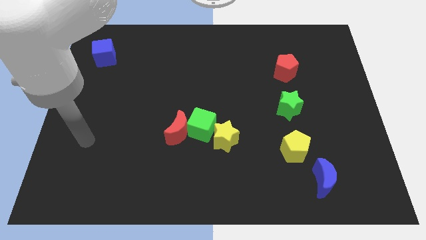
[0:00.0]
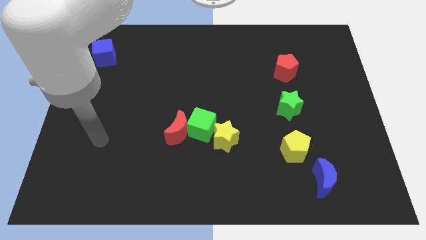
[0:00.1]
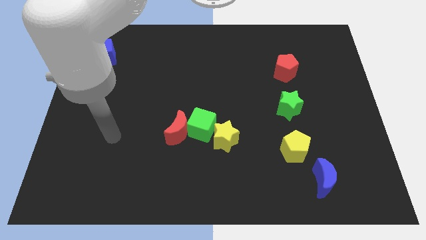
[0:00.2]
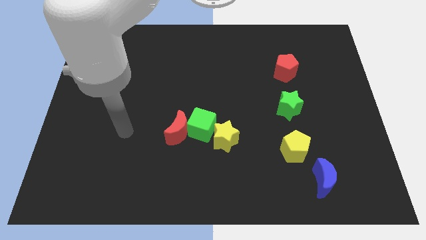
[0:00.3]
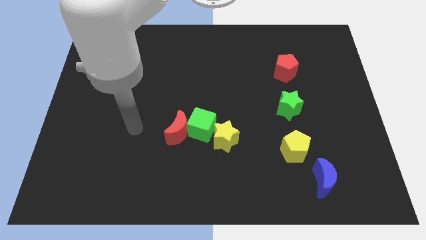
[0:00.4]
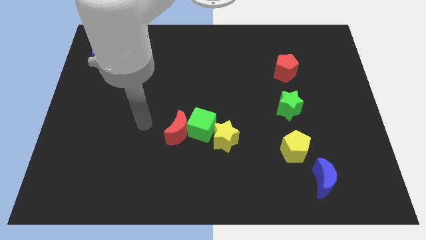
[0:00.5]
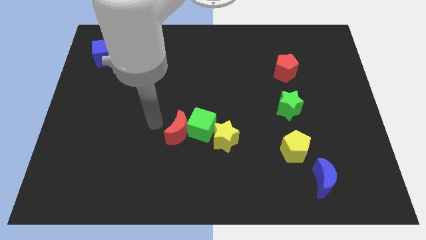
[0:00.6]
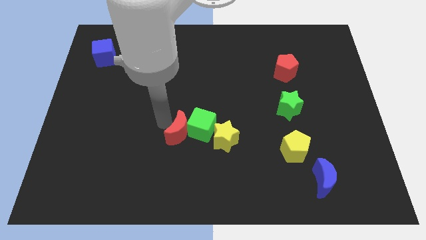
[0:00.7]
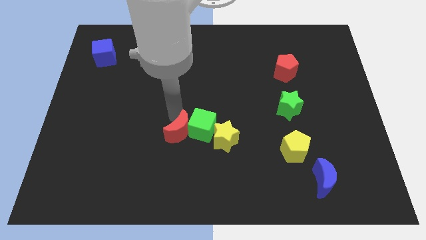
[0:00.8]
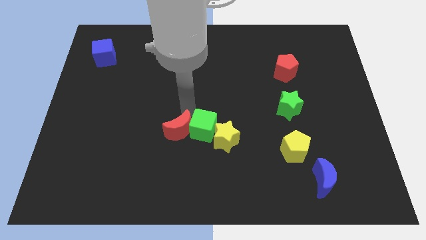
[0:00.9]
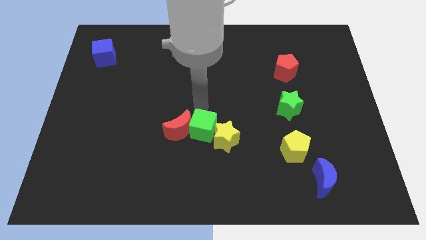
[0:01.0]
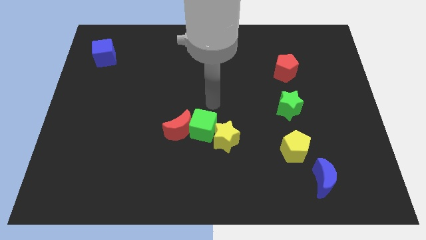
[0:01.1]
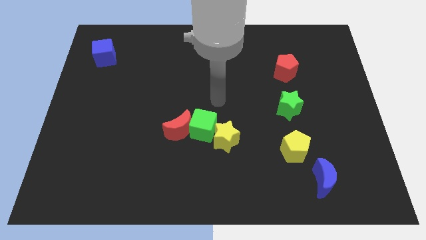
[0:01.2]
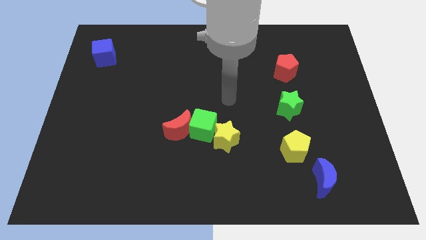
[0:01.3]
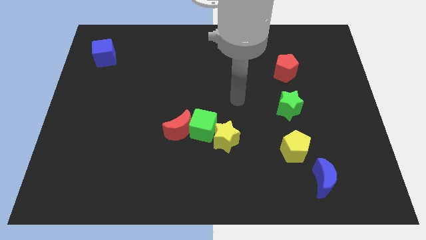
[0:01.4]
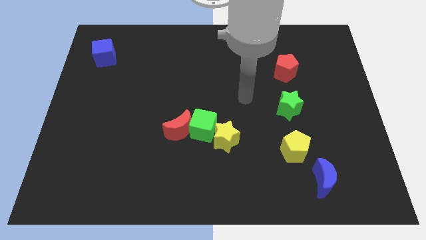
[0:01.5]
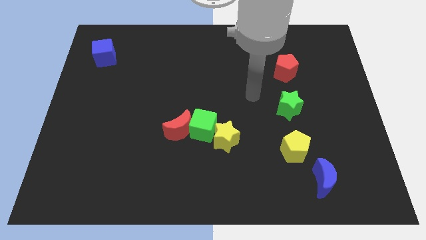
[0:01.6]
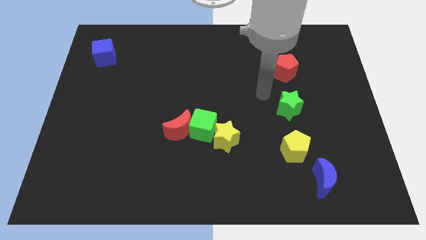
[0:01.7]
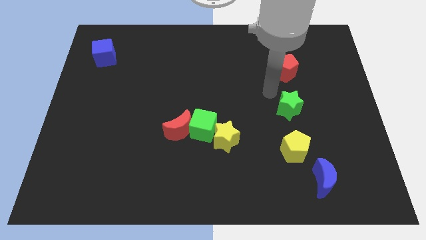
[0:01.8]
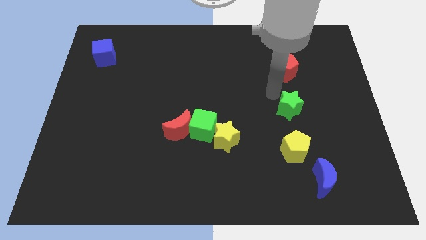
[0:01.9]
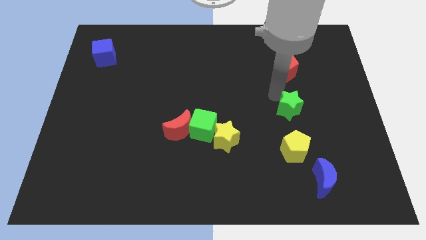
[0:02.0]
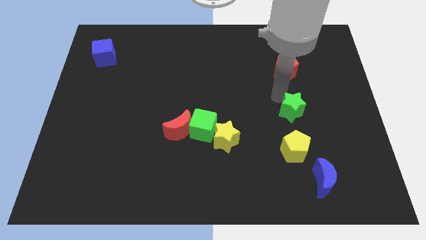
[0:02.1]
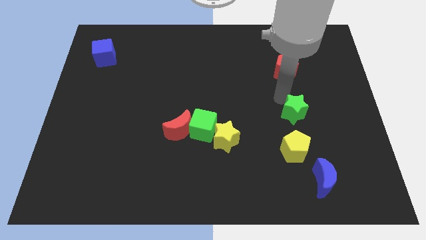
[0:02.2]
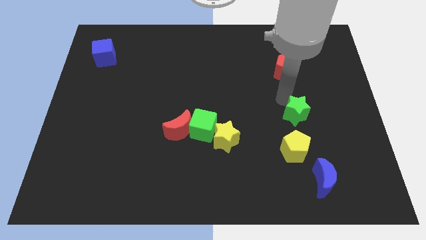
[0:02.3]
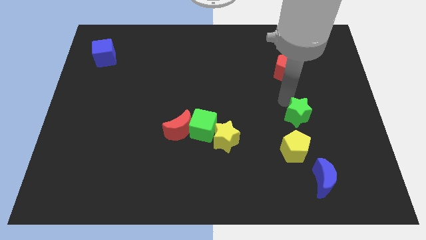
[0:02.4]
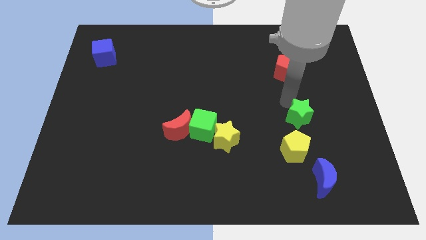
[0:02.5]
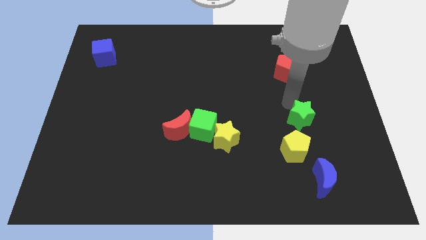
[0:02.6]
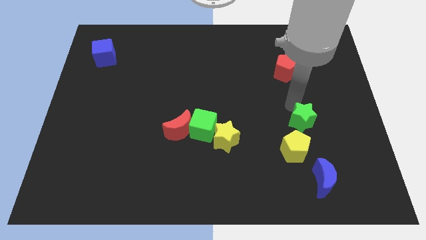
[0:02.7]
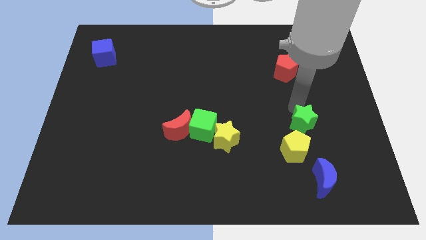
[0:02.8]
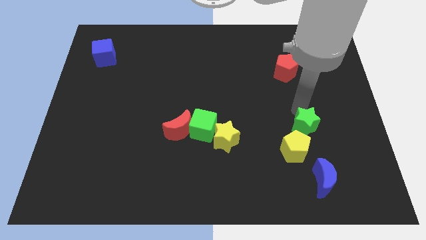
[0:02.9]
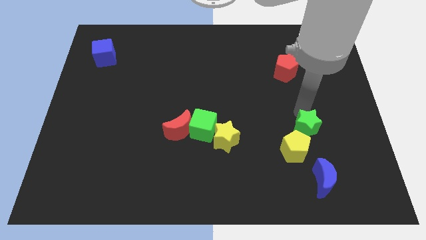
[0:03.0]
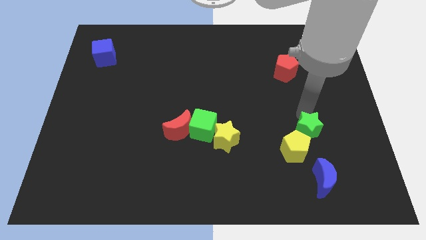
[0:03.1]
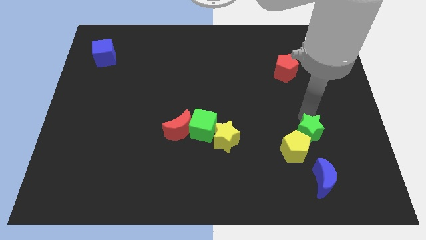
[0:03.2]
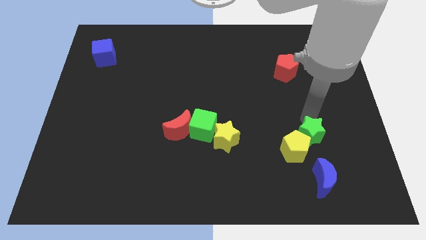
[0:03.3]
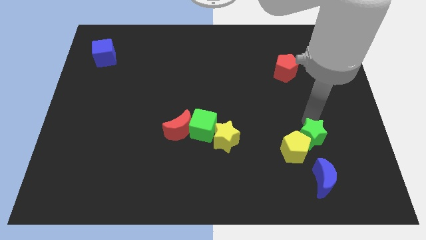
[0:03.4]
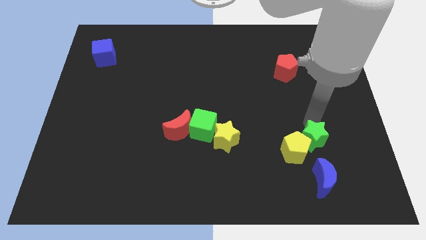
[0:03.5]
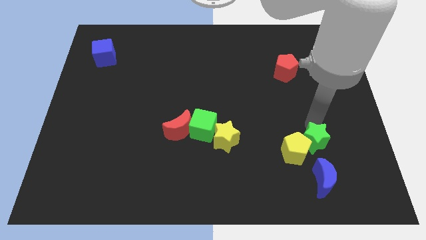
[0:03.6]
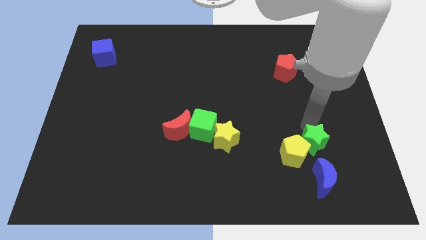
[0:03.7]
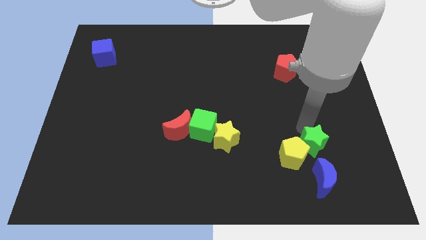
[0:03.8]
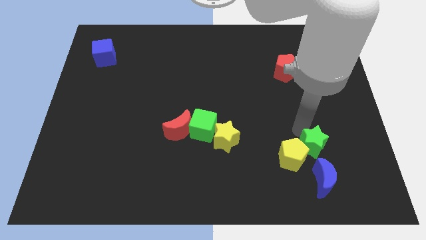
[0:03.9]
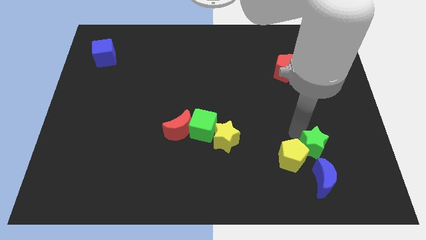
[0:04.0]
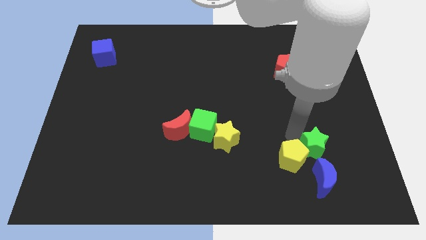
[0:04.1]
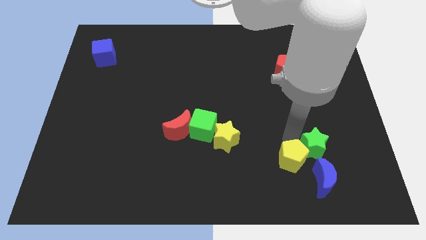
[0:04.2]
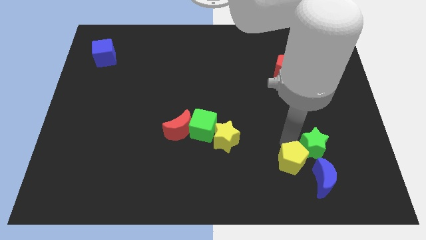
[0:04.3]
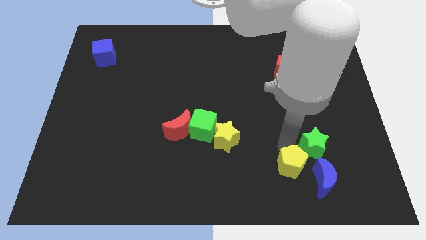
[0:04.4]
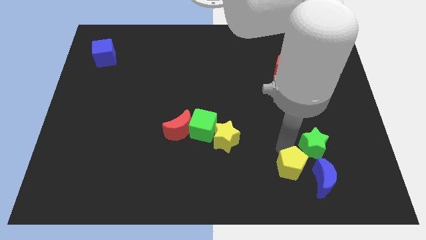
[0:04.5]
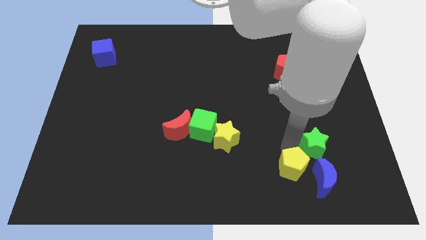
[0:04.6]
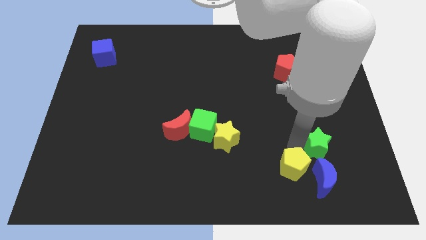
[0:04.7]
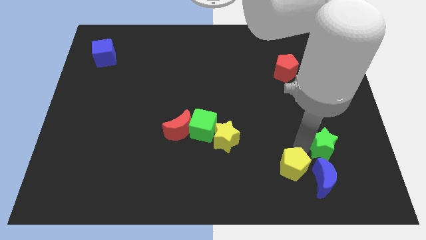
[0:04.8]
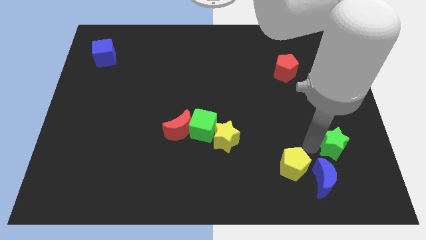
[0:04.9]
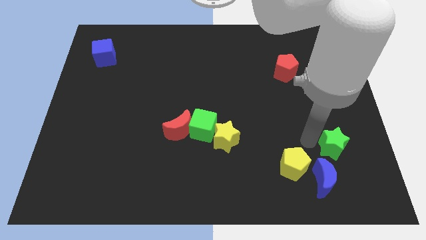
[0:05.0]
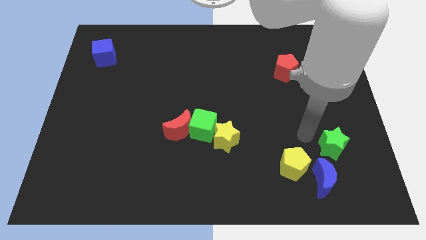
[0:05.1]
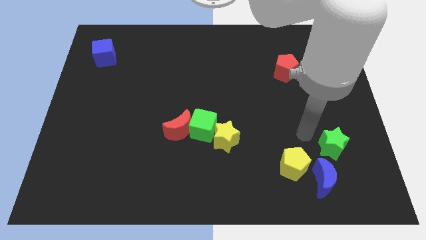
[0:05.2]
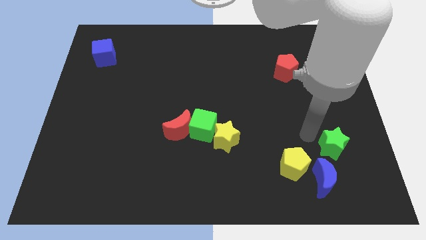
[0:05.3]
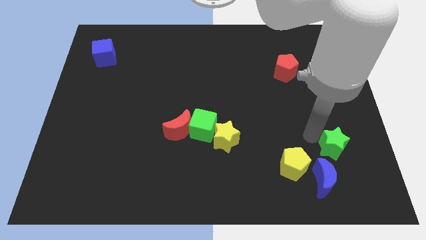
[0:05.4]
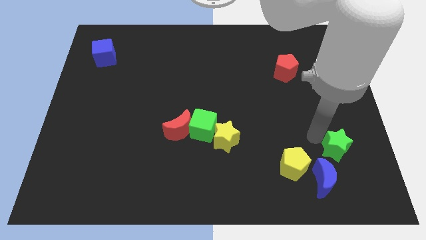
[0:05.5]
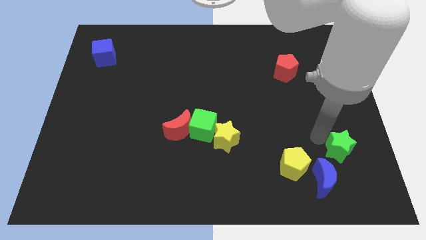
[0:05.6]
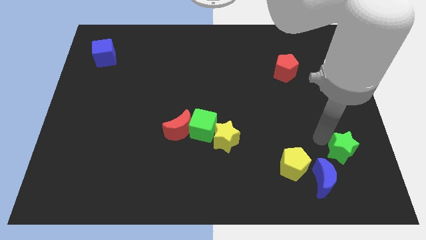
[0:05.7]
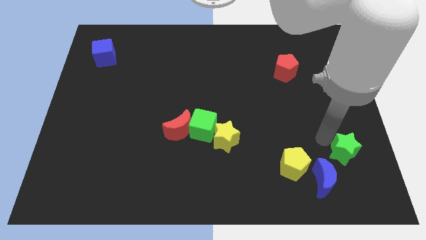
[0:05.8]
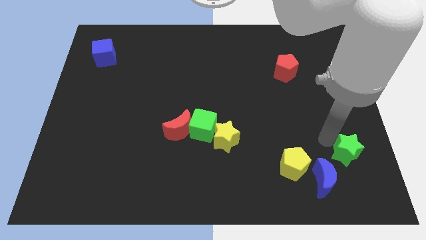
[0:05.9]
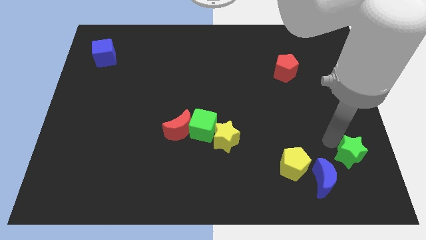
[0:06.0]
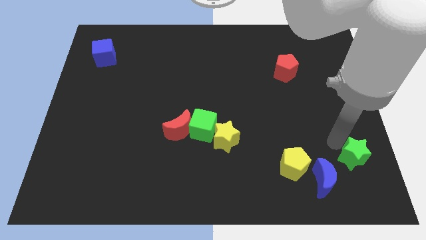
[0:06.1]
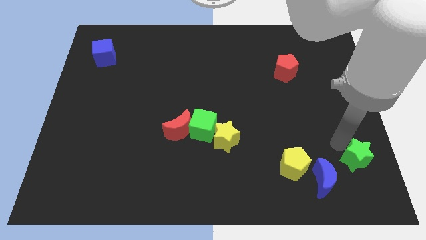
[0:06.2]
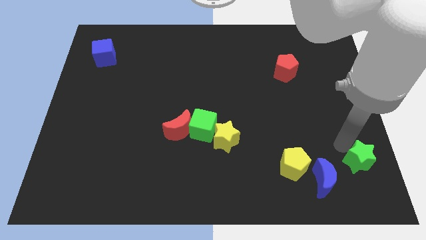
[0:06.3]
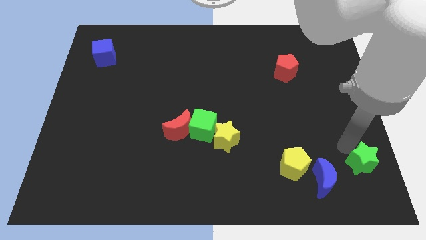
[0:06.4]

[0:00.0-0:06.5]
move the green star to the bottom right corner
